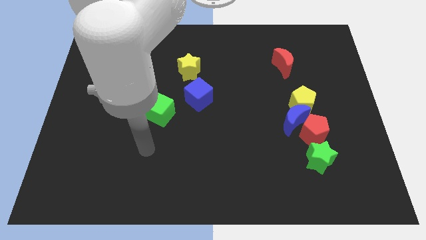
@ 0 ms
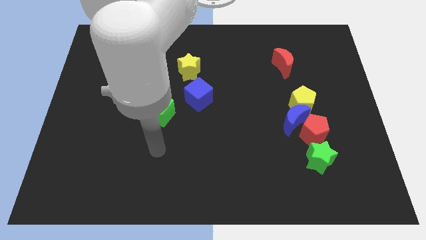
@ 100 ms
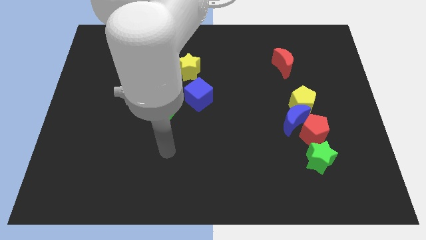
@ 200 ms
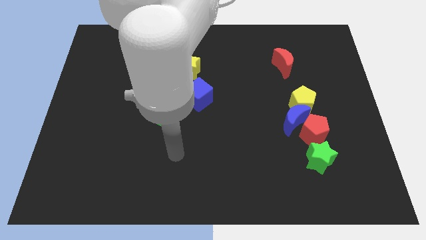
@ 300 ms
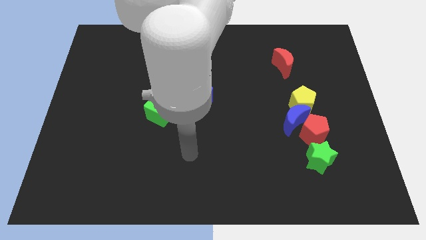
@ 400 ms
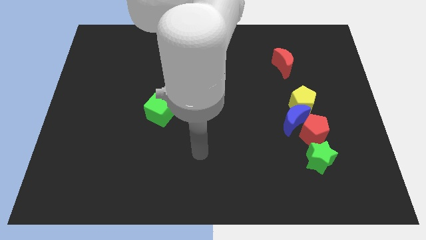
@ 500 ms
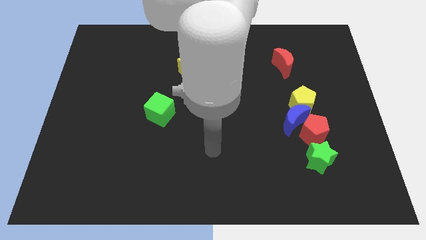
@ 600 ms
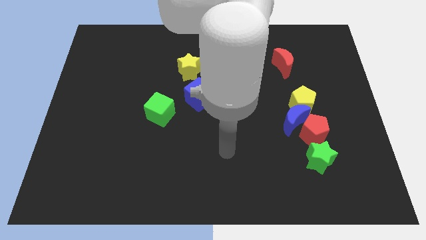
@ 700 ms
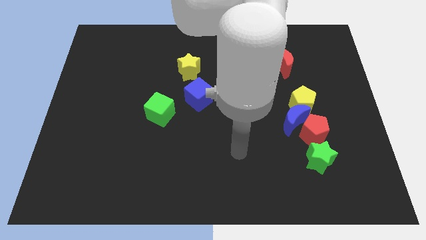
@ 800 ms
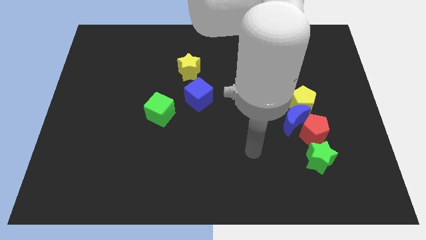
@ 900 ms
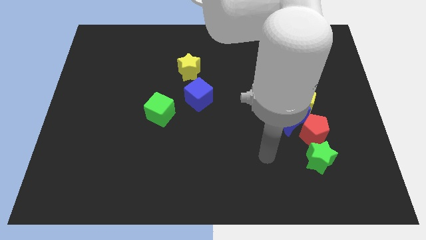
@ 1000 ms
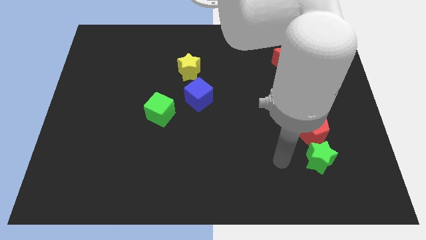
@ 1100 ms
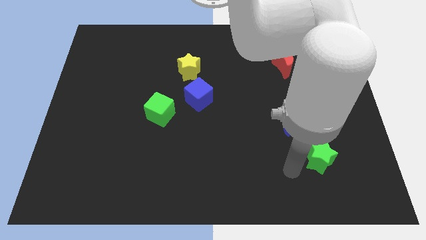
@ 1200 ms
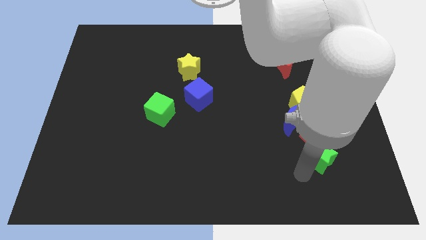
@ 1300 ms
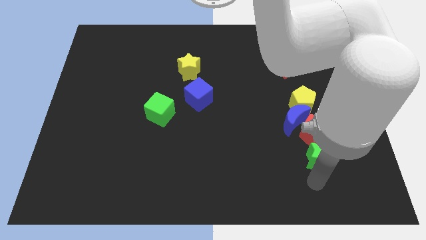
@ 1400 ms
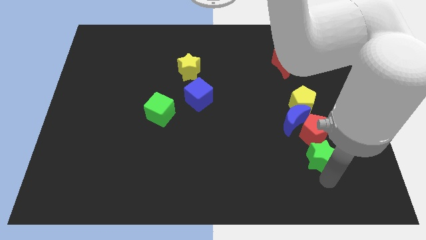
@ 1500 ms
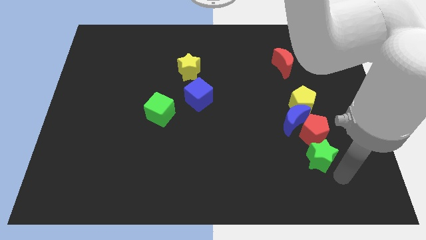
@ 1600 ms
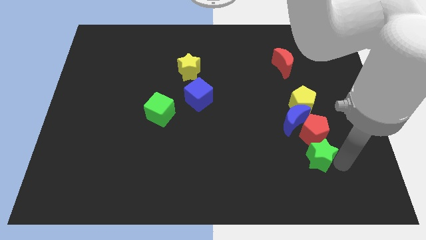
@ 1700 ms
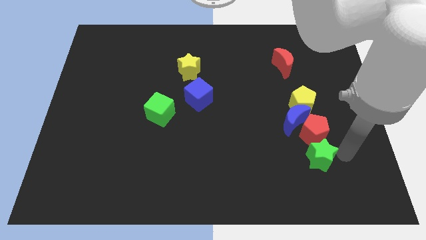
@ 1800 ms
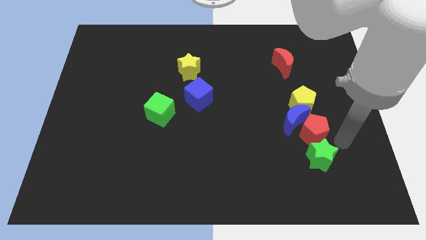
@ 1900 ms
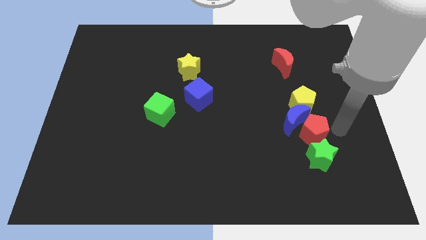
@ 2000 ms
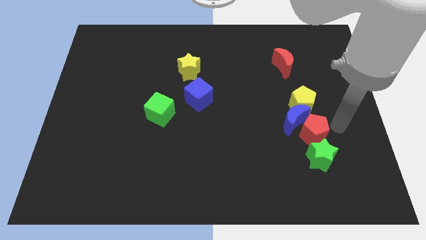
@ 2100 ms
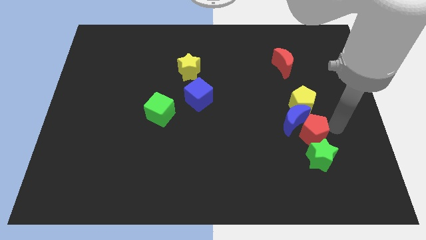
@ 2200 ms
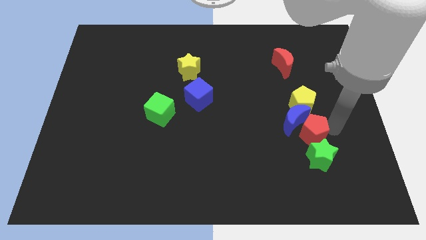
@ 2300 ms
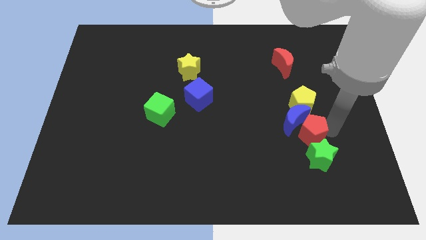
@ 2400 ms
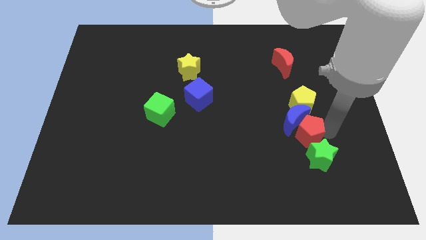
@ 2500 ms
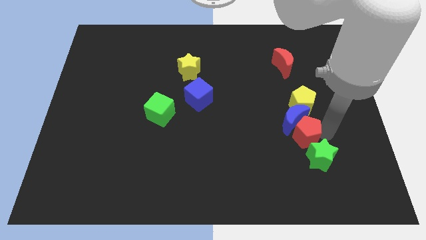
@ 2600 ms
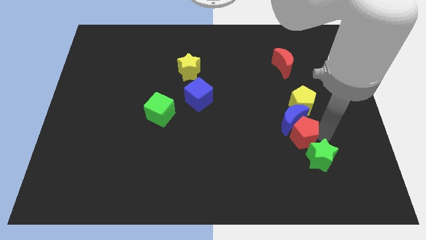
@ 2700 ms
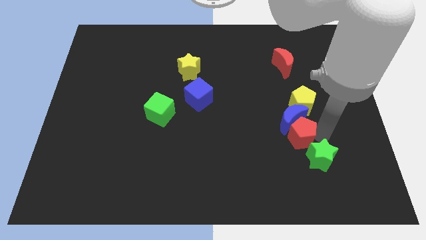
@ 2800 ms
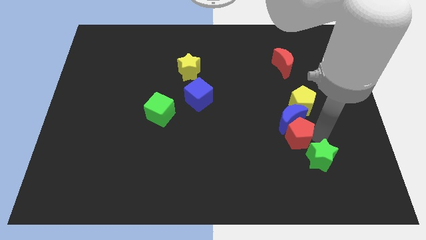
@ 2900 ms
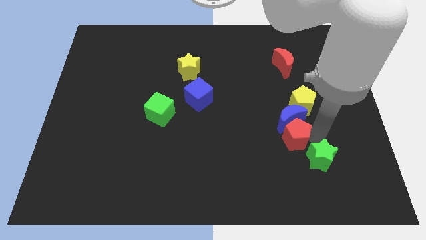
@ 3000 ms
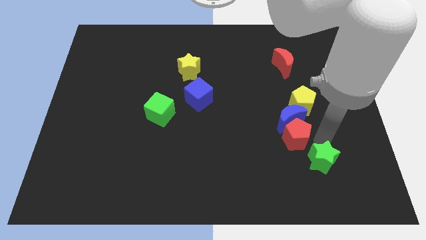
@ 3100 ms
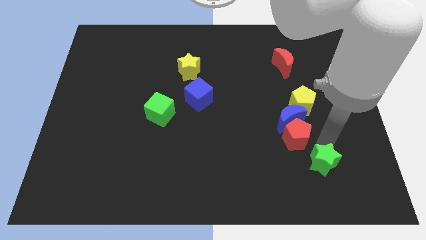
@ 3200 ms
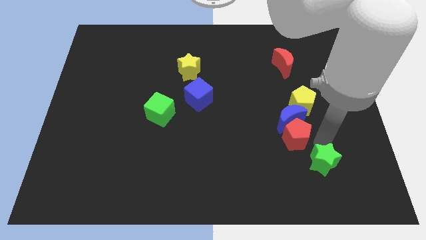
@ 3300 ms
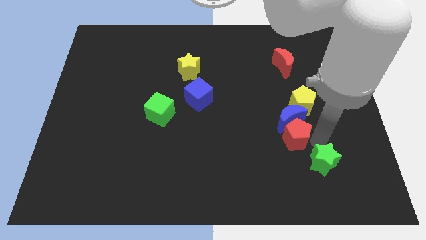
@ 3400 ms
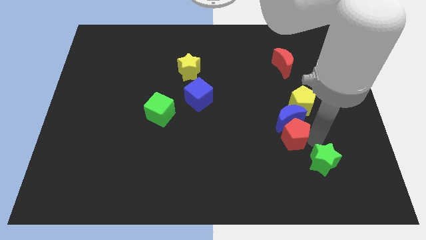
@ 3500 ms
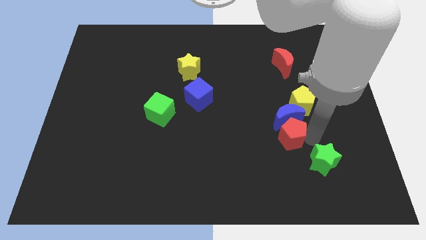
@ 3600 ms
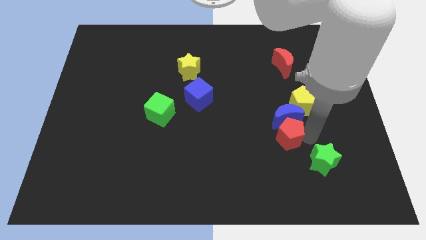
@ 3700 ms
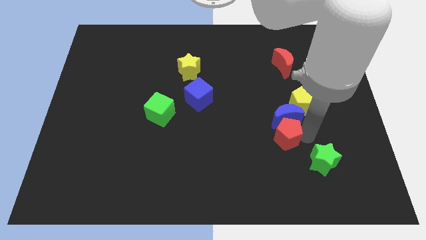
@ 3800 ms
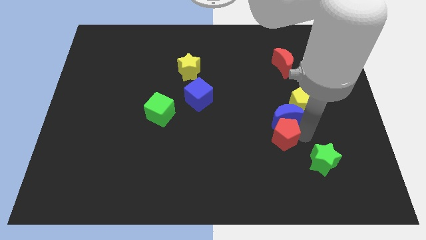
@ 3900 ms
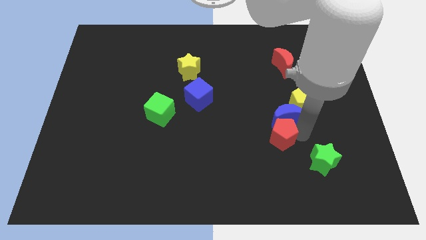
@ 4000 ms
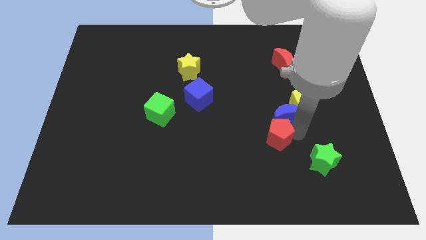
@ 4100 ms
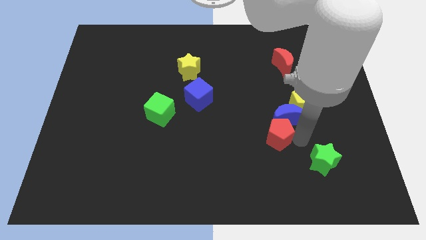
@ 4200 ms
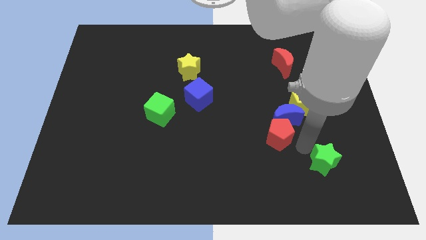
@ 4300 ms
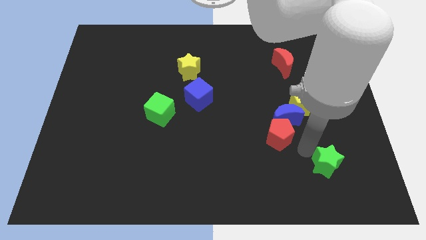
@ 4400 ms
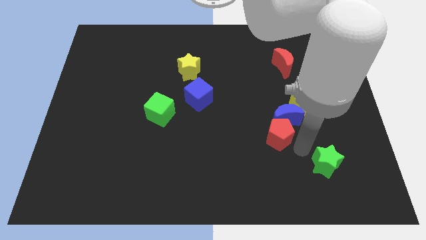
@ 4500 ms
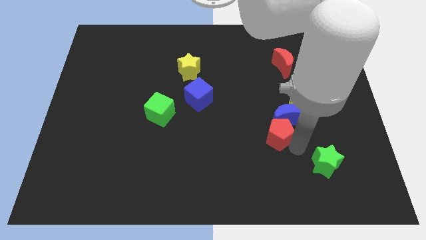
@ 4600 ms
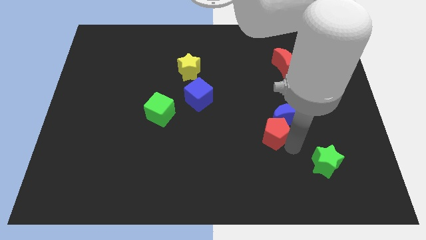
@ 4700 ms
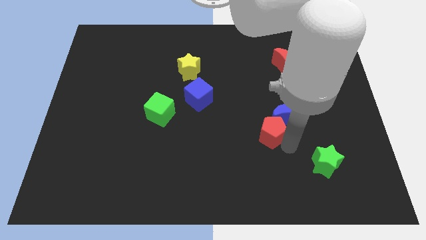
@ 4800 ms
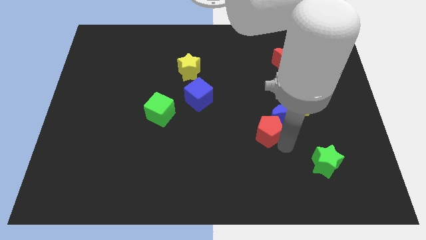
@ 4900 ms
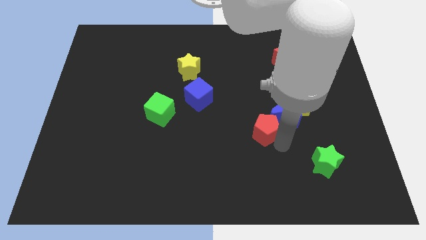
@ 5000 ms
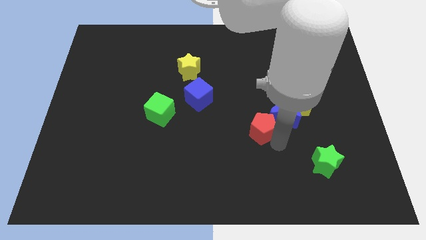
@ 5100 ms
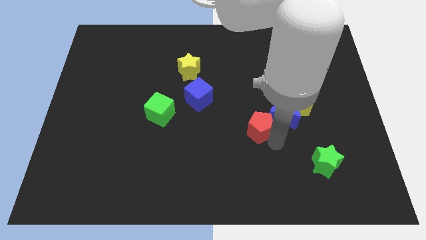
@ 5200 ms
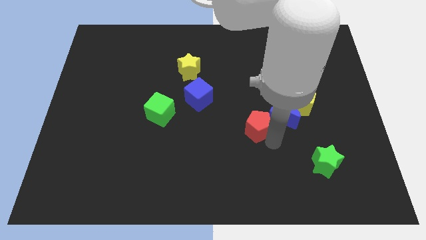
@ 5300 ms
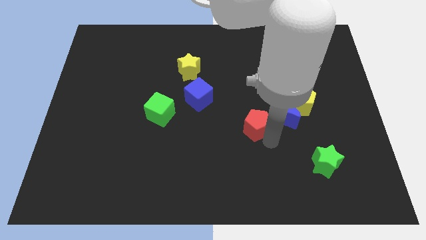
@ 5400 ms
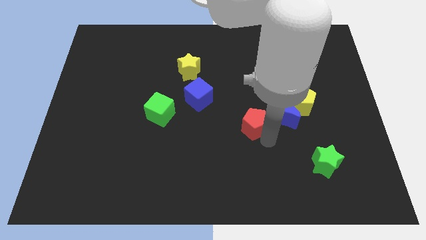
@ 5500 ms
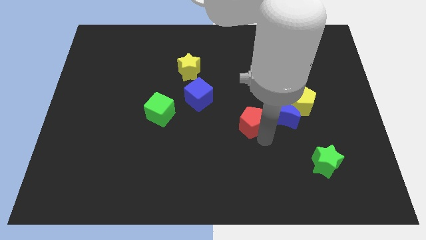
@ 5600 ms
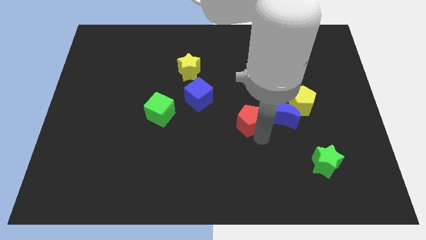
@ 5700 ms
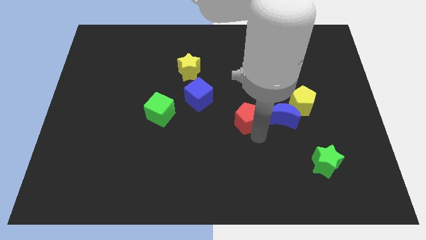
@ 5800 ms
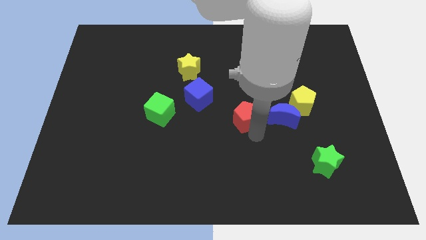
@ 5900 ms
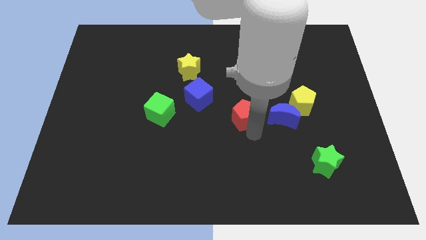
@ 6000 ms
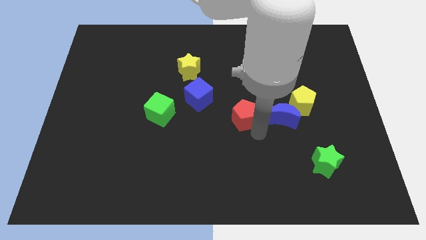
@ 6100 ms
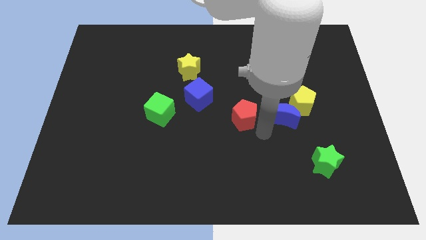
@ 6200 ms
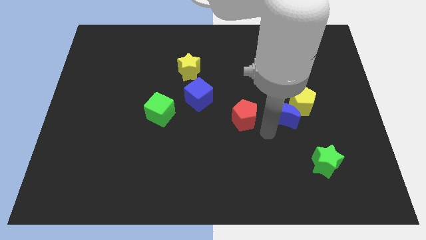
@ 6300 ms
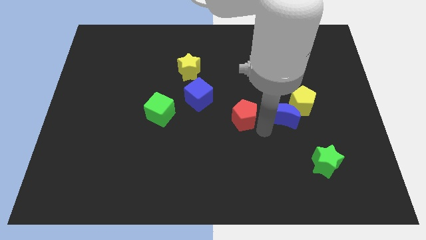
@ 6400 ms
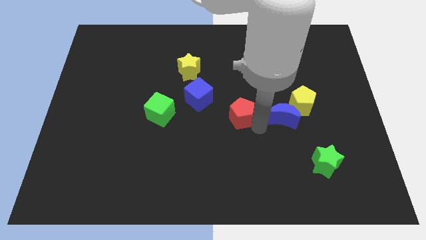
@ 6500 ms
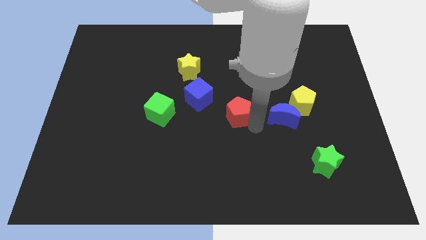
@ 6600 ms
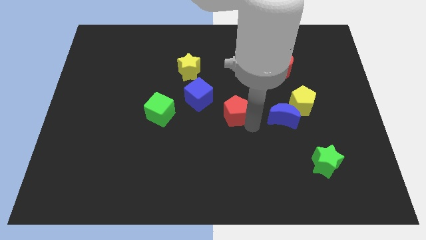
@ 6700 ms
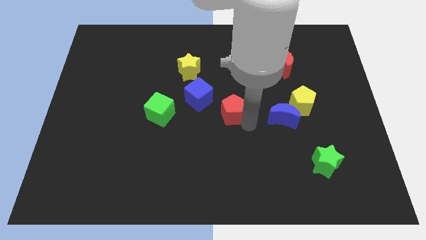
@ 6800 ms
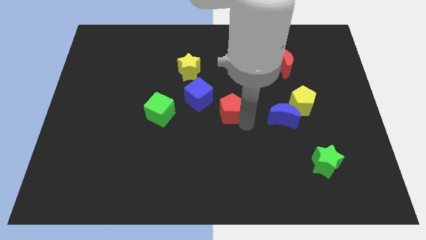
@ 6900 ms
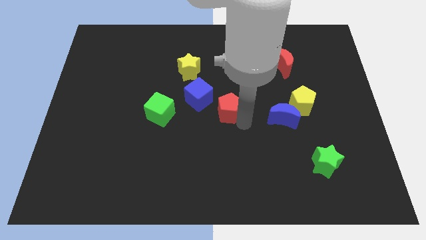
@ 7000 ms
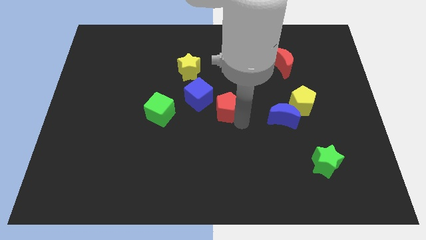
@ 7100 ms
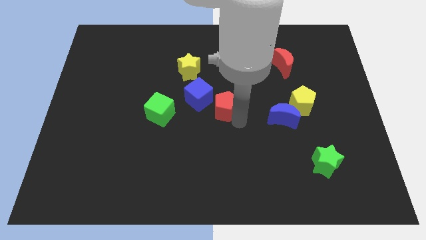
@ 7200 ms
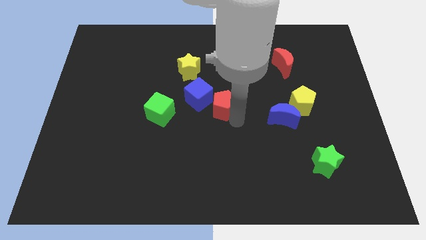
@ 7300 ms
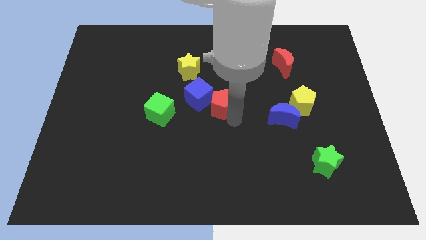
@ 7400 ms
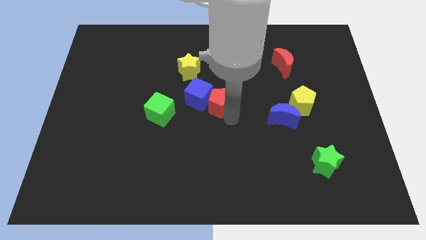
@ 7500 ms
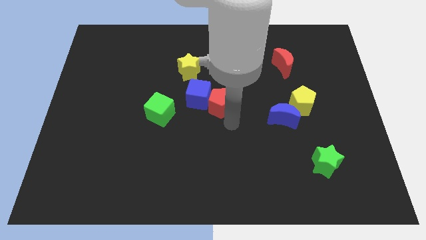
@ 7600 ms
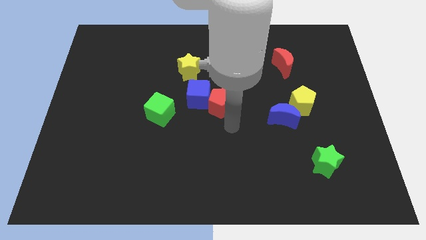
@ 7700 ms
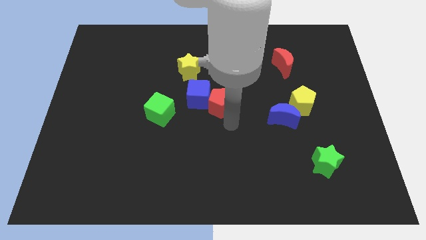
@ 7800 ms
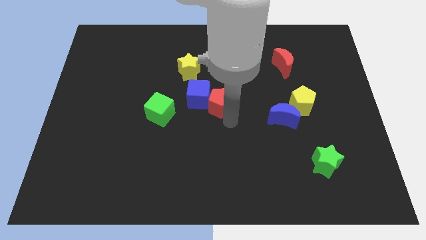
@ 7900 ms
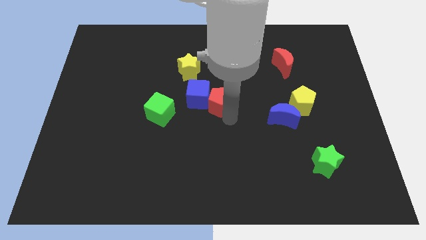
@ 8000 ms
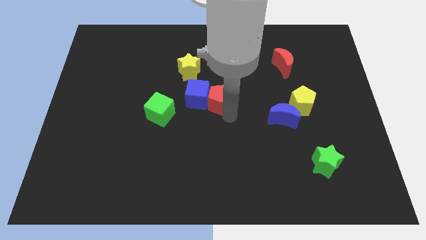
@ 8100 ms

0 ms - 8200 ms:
push the red pentagon diagonally down and to the right of the yellow star

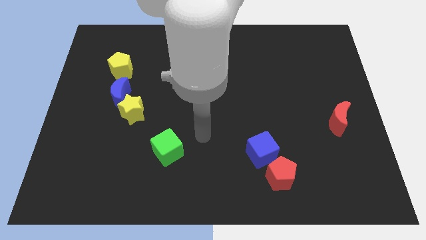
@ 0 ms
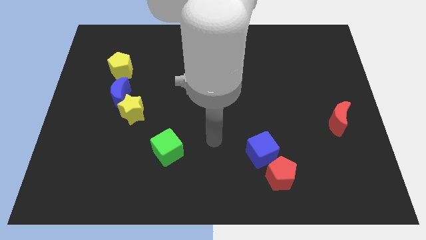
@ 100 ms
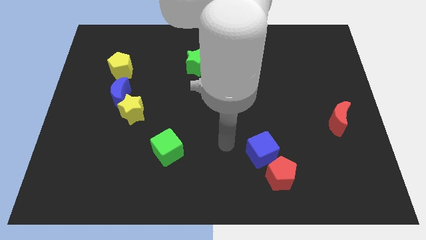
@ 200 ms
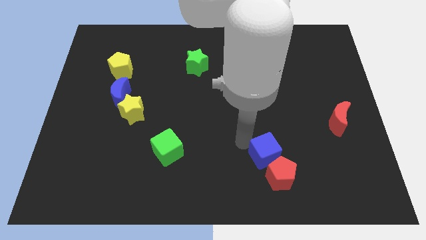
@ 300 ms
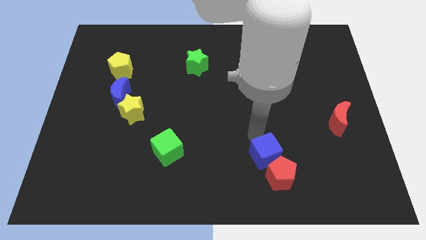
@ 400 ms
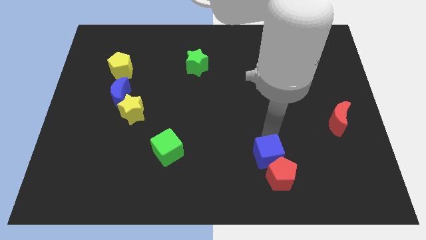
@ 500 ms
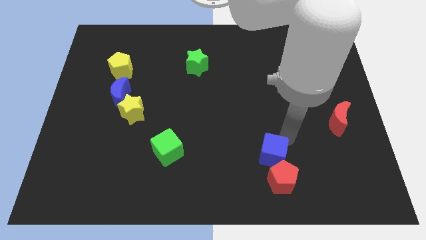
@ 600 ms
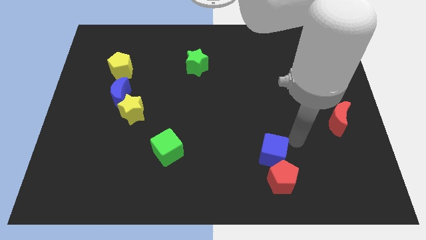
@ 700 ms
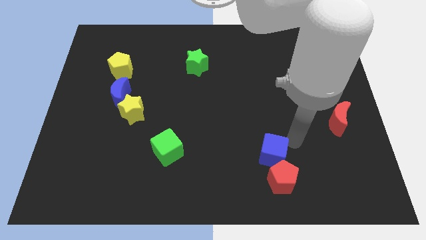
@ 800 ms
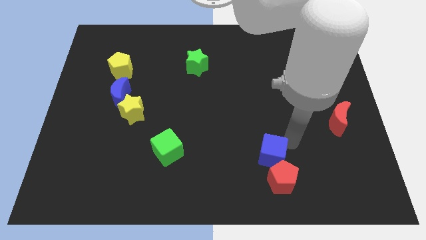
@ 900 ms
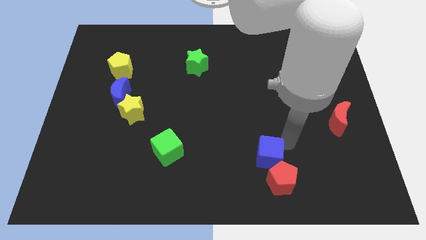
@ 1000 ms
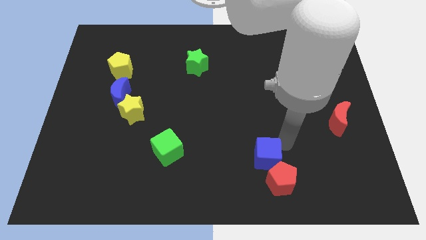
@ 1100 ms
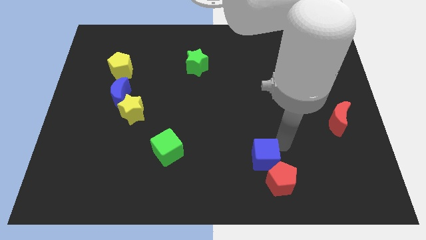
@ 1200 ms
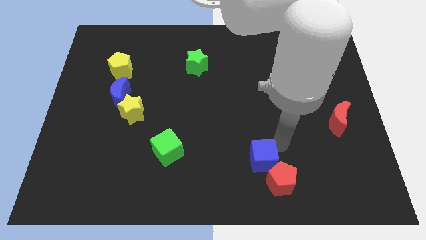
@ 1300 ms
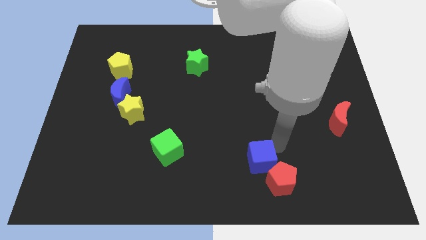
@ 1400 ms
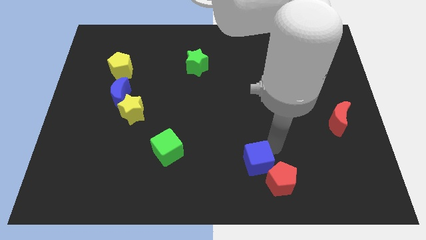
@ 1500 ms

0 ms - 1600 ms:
move the blue cube to the left of the red pentagon
